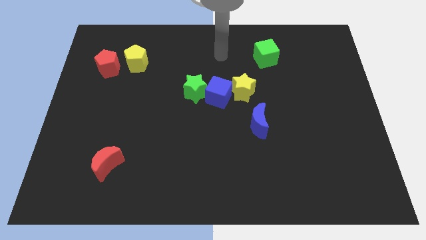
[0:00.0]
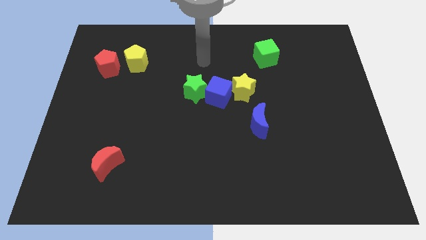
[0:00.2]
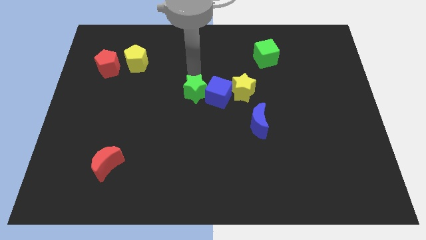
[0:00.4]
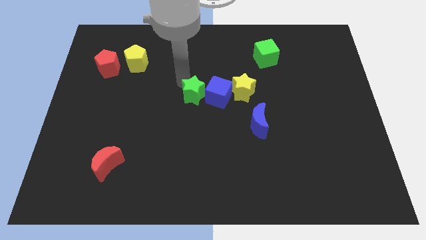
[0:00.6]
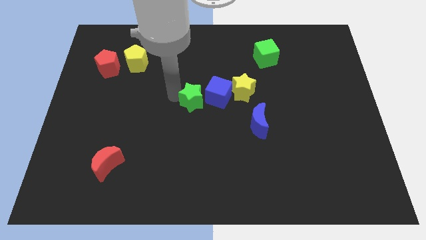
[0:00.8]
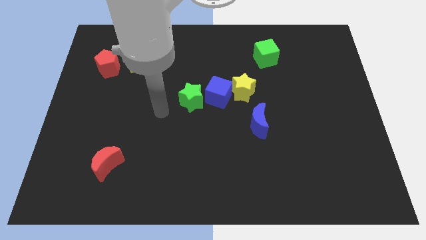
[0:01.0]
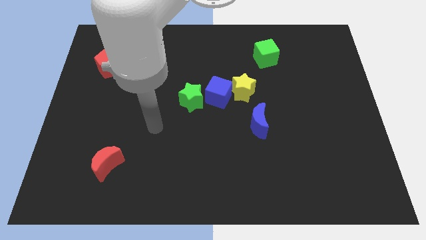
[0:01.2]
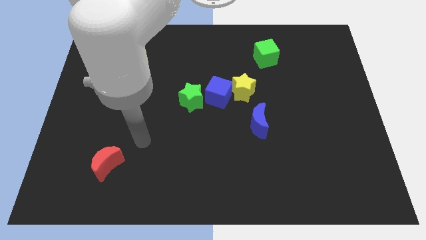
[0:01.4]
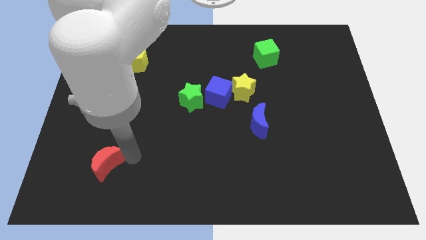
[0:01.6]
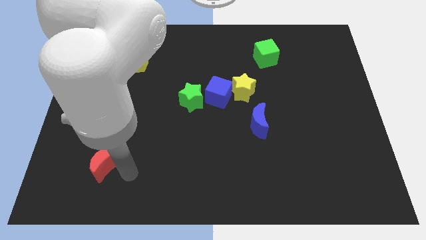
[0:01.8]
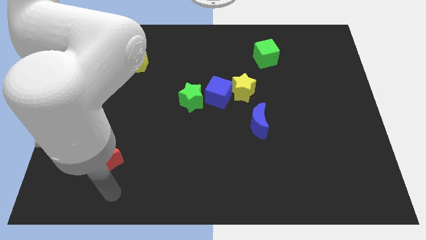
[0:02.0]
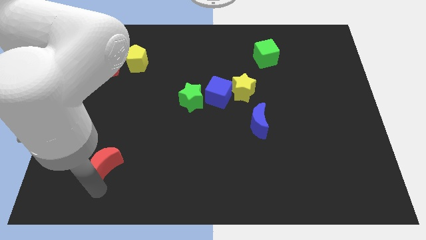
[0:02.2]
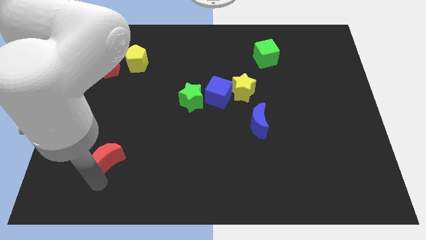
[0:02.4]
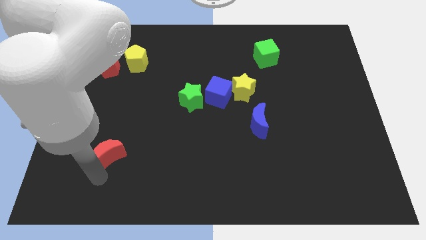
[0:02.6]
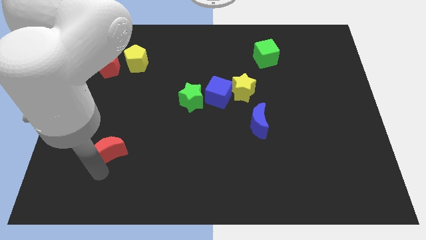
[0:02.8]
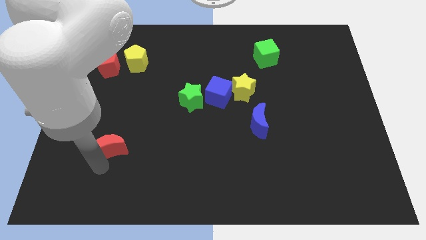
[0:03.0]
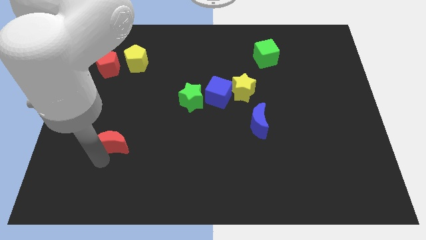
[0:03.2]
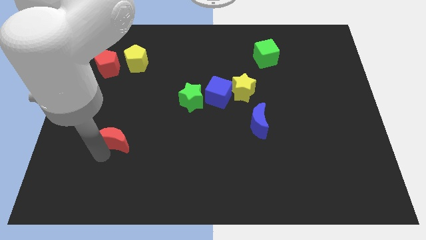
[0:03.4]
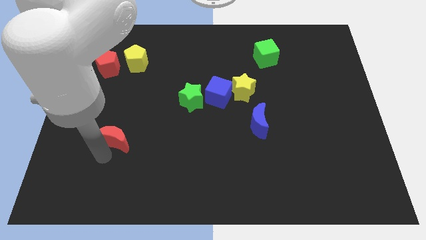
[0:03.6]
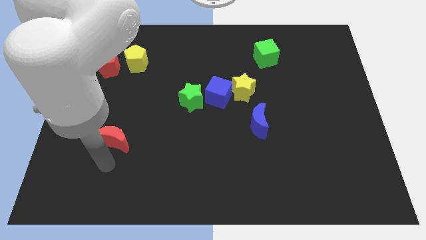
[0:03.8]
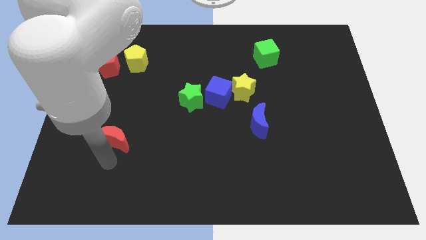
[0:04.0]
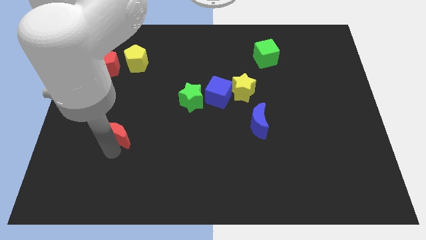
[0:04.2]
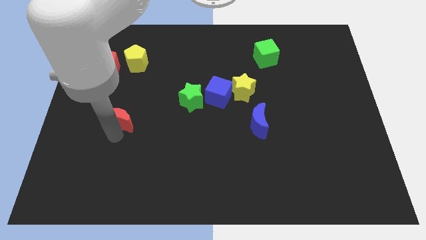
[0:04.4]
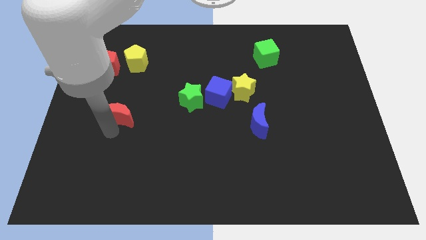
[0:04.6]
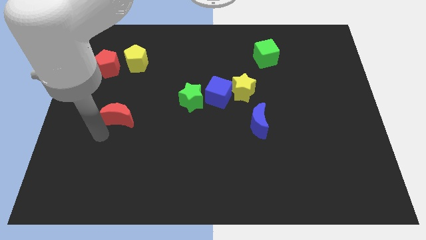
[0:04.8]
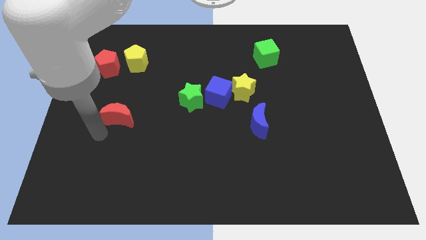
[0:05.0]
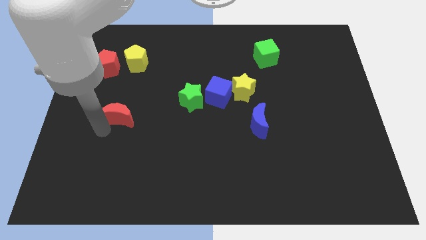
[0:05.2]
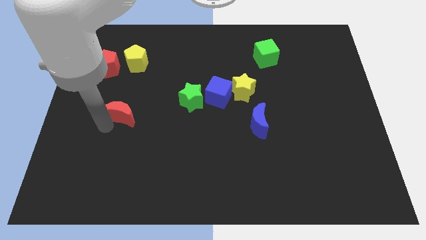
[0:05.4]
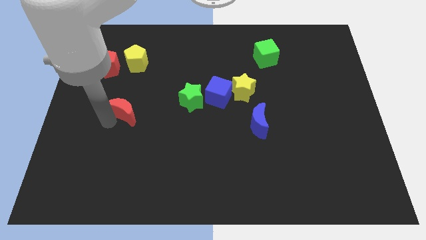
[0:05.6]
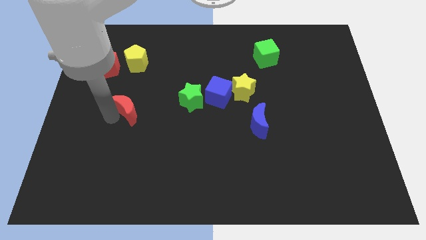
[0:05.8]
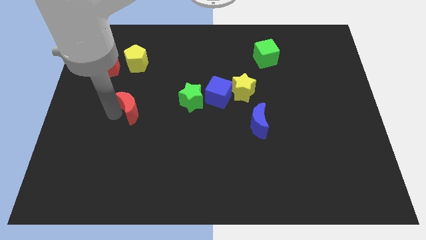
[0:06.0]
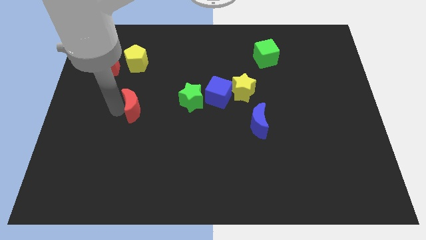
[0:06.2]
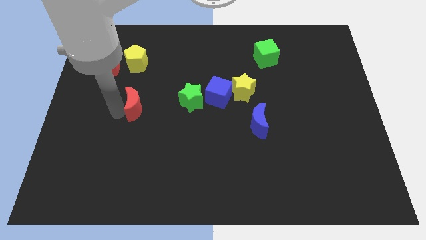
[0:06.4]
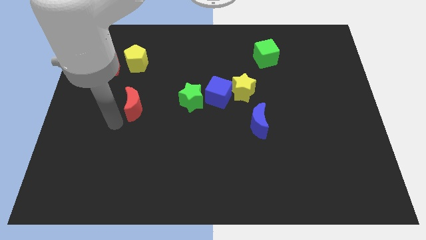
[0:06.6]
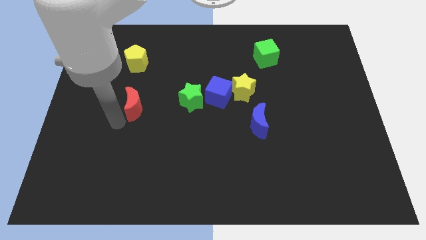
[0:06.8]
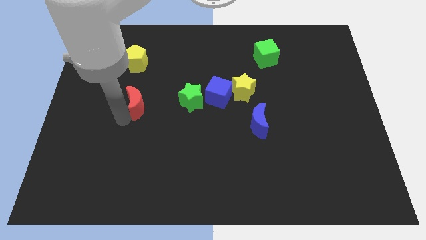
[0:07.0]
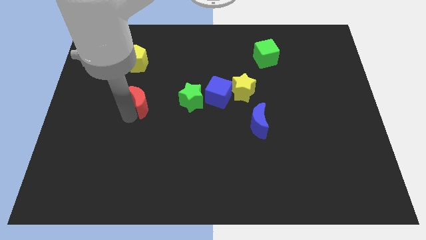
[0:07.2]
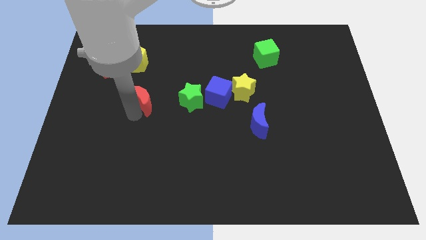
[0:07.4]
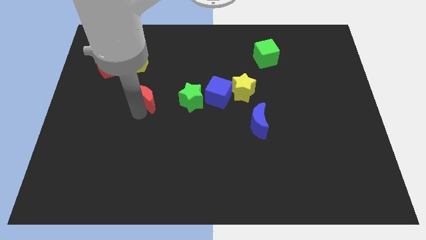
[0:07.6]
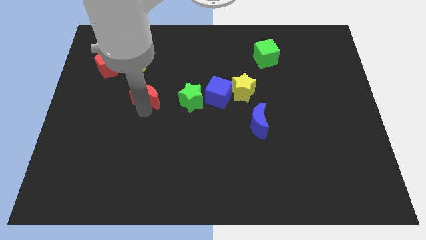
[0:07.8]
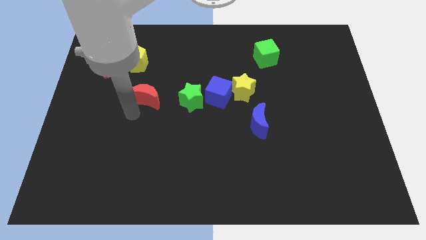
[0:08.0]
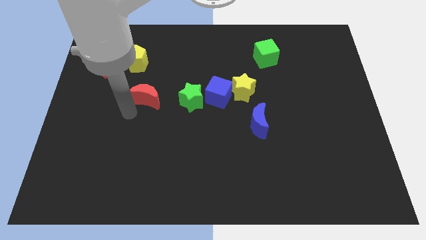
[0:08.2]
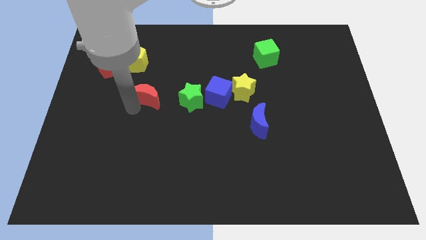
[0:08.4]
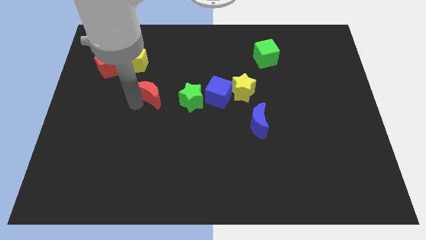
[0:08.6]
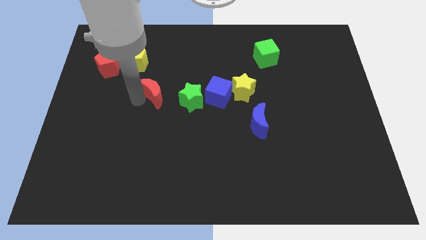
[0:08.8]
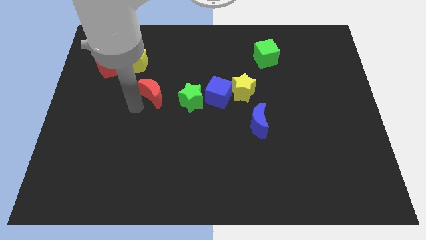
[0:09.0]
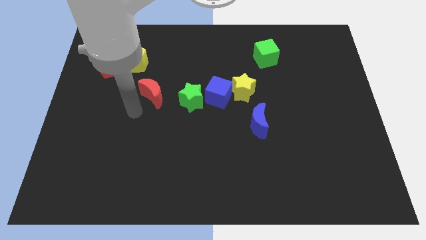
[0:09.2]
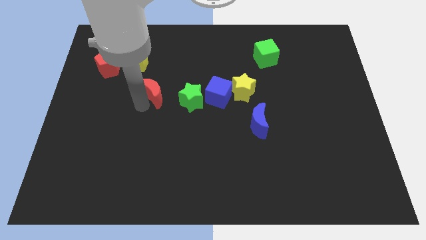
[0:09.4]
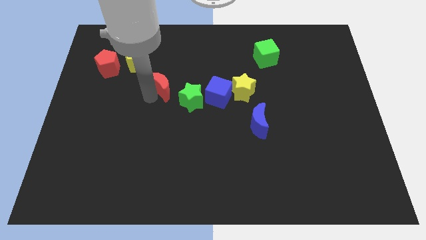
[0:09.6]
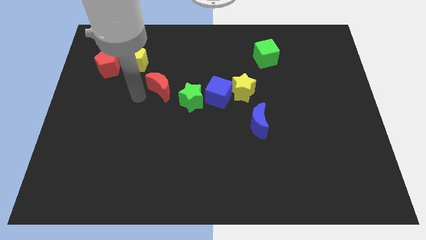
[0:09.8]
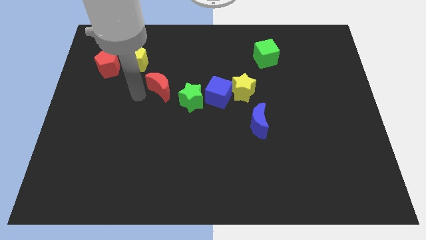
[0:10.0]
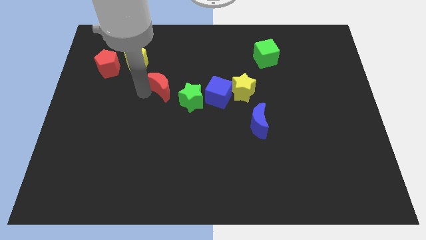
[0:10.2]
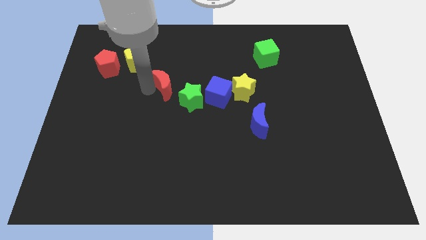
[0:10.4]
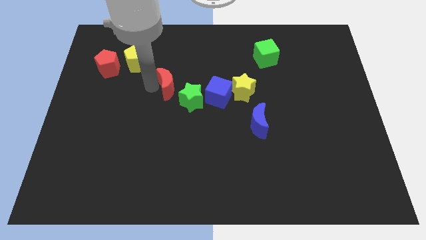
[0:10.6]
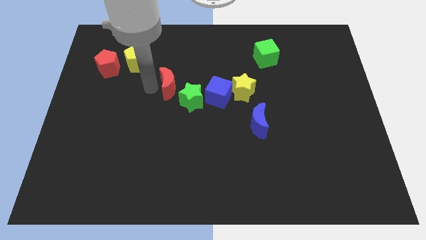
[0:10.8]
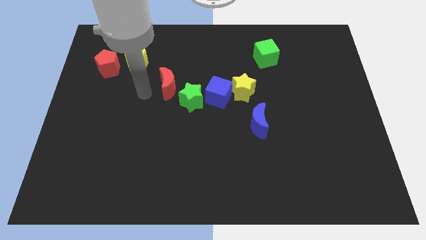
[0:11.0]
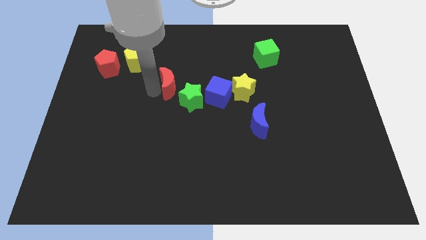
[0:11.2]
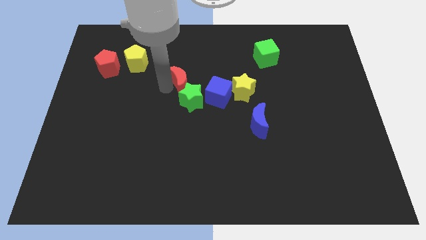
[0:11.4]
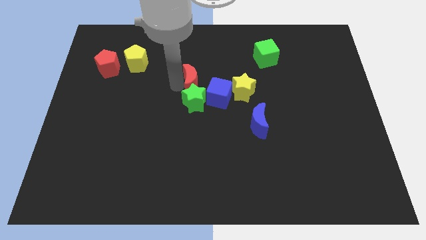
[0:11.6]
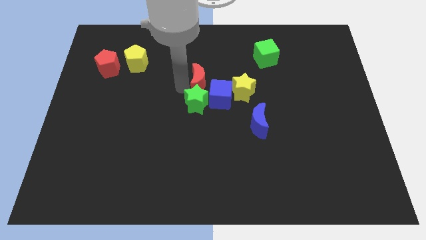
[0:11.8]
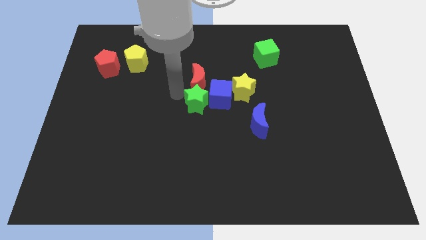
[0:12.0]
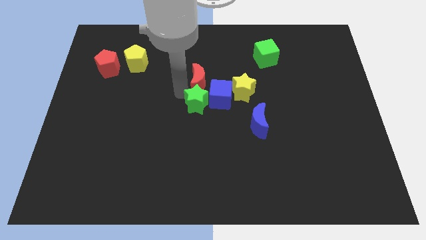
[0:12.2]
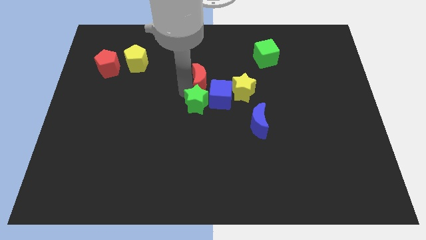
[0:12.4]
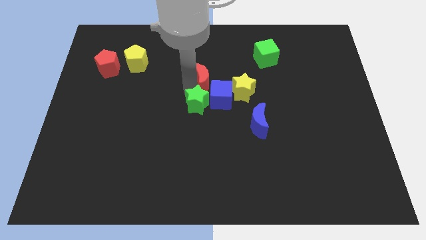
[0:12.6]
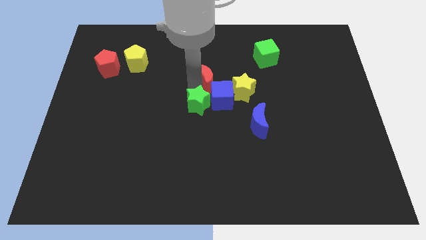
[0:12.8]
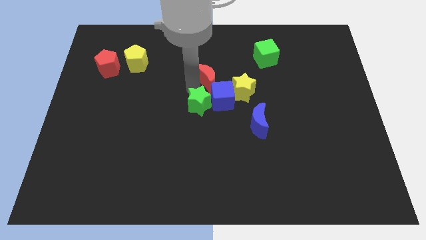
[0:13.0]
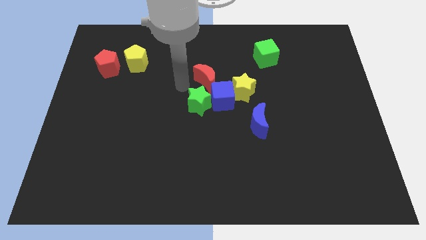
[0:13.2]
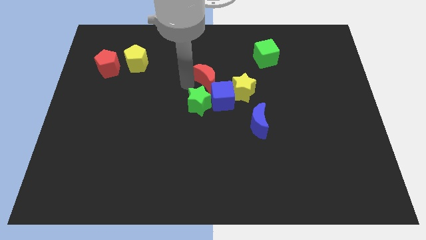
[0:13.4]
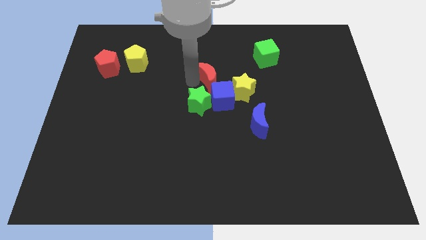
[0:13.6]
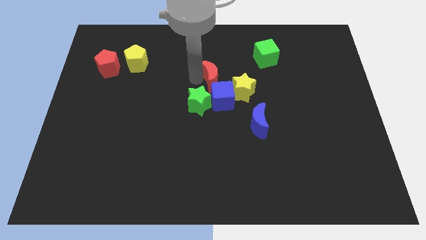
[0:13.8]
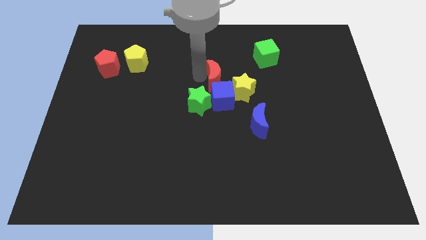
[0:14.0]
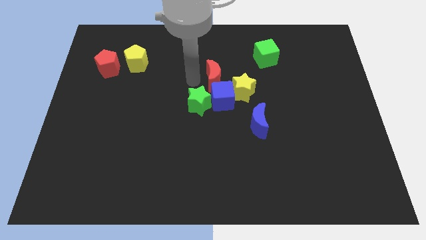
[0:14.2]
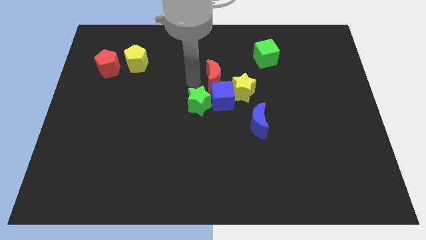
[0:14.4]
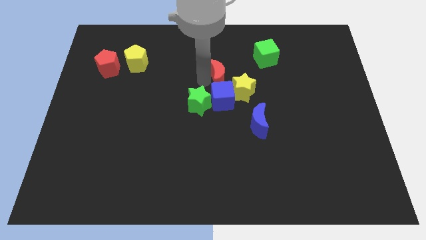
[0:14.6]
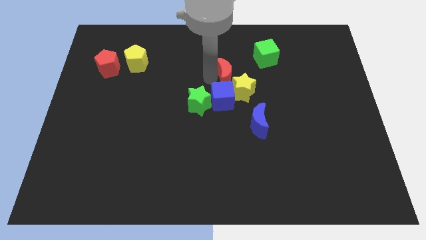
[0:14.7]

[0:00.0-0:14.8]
move the red moon to the top right of the blue cube
